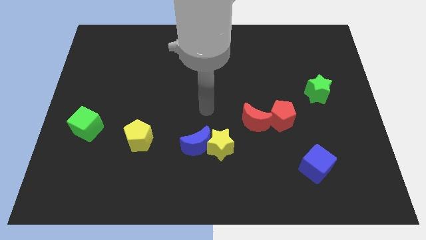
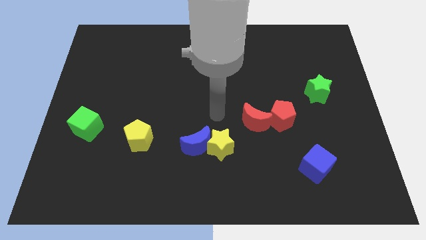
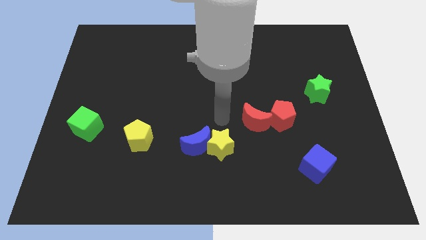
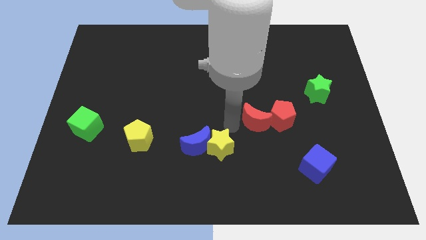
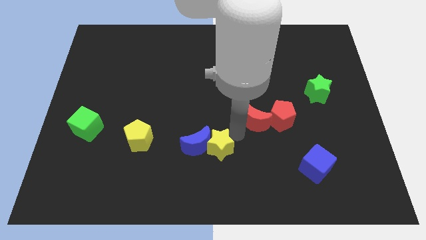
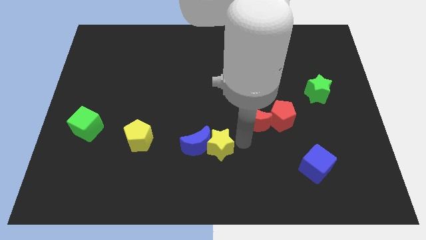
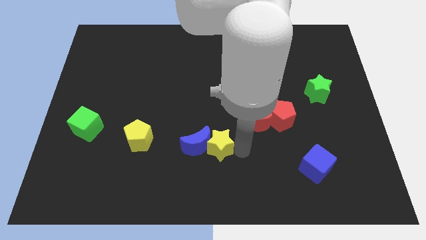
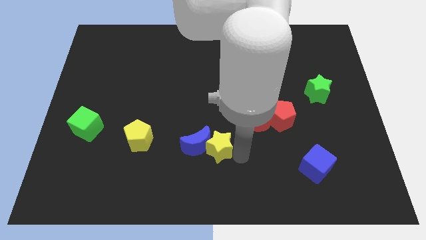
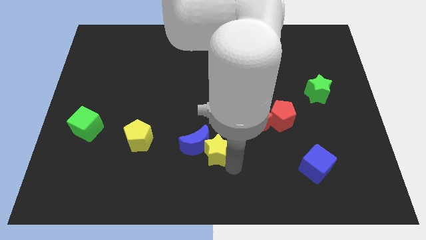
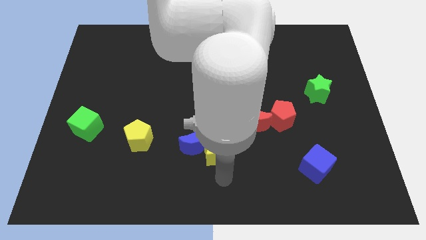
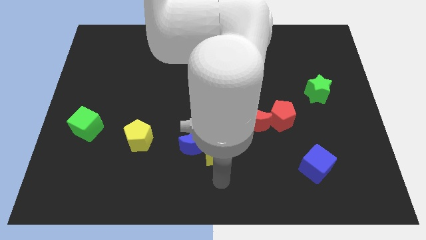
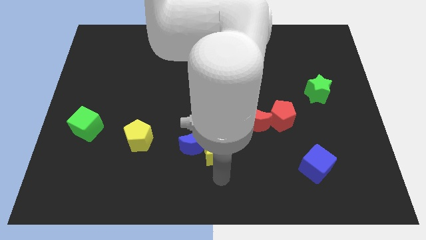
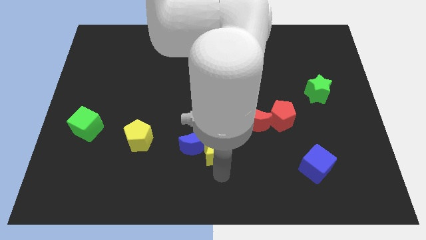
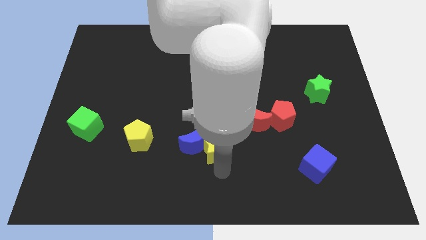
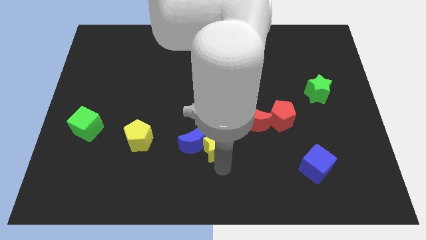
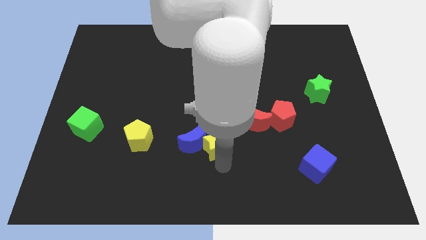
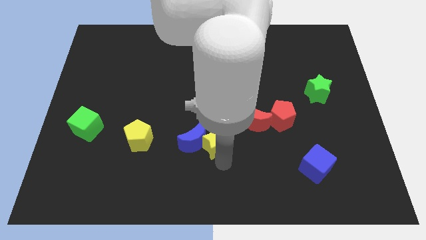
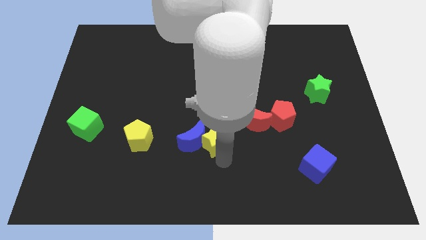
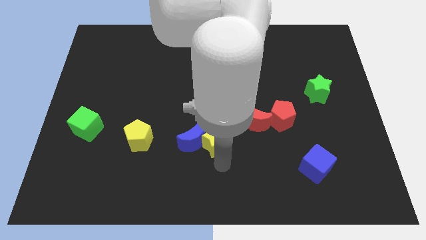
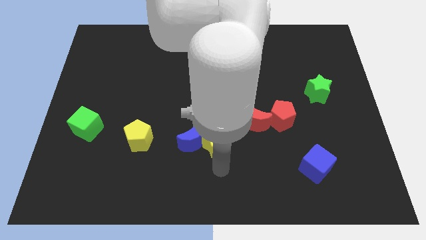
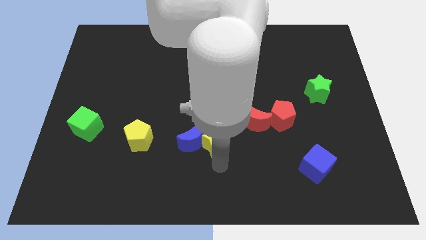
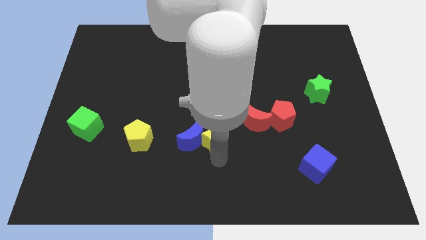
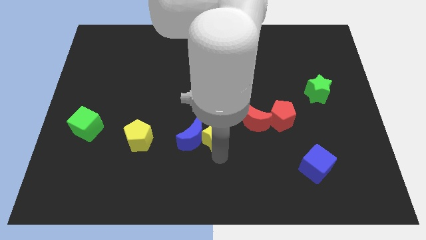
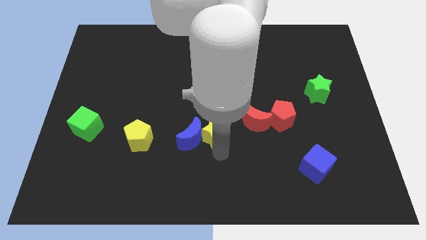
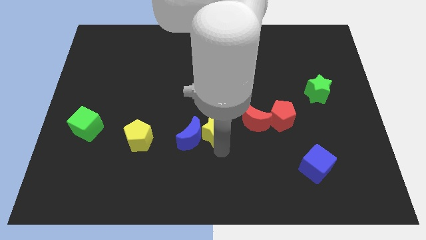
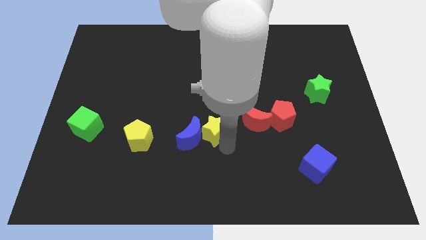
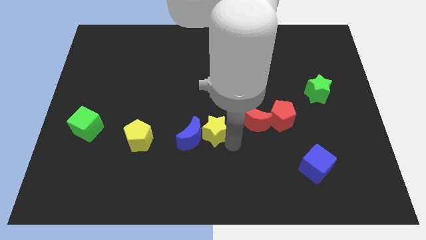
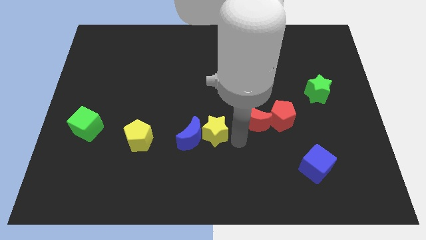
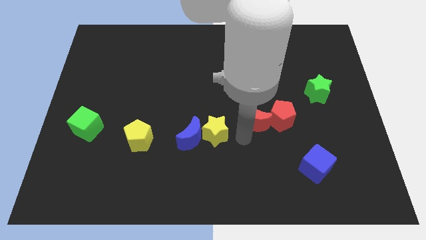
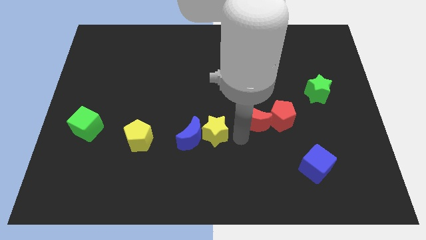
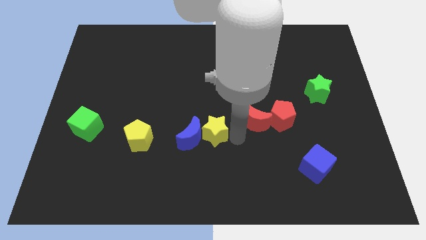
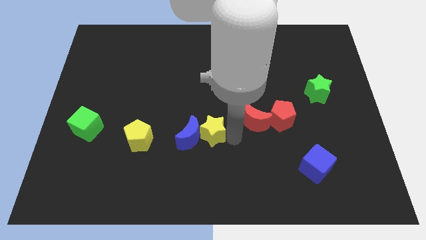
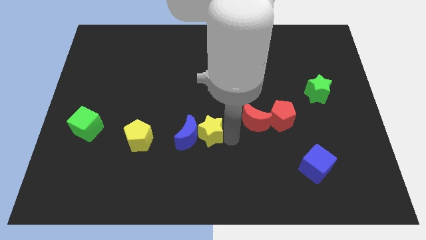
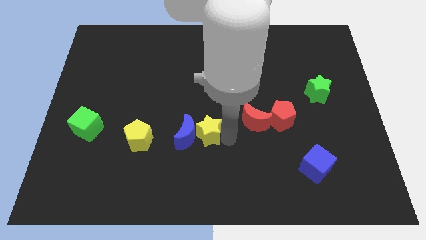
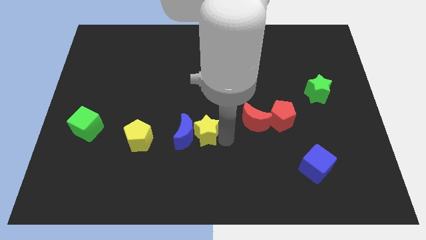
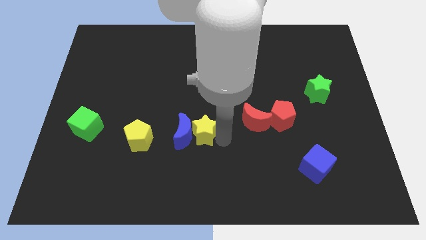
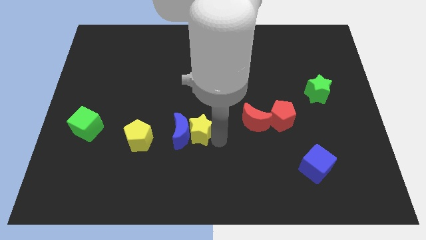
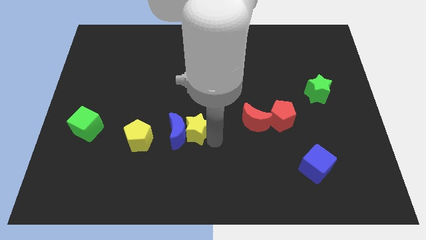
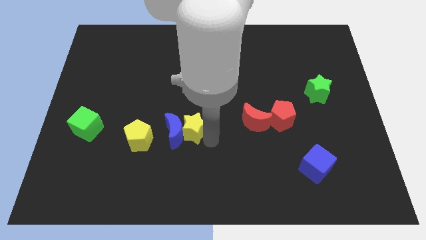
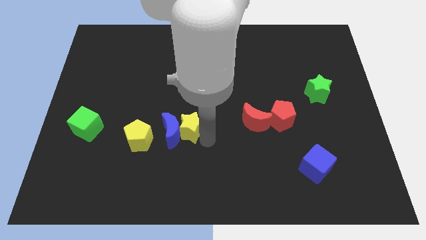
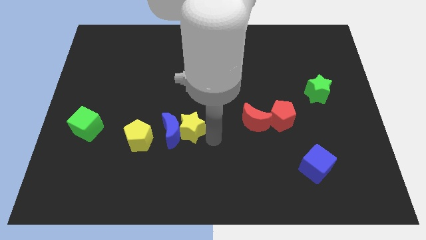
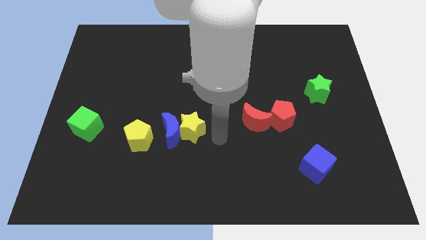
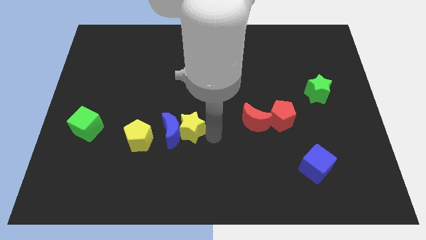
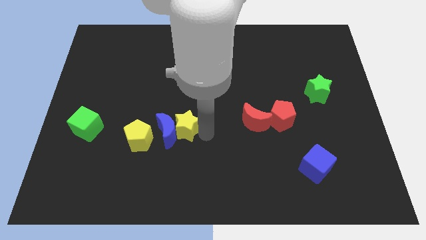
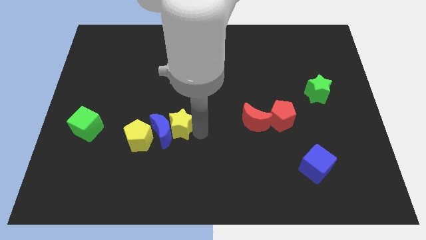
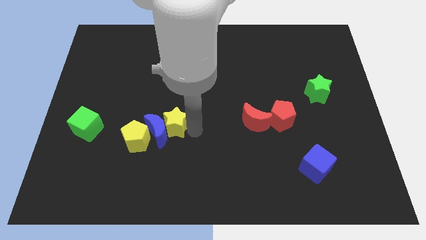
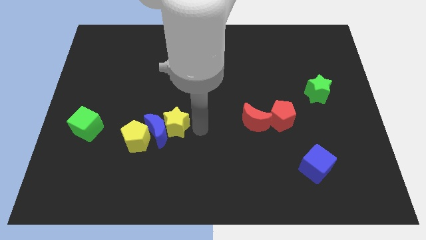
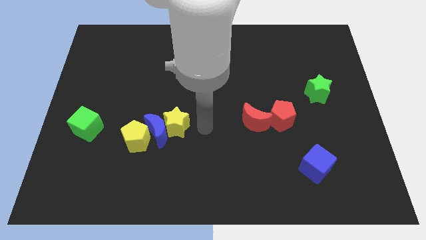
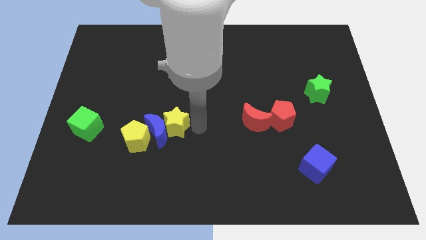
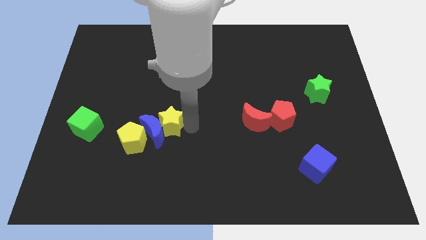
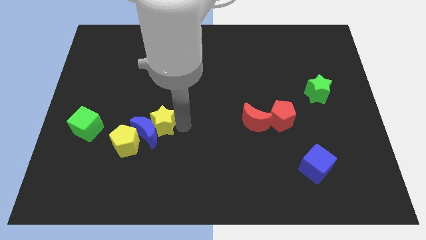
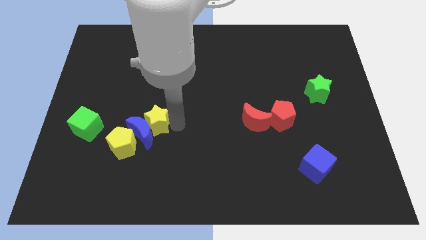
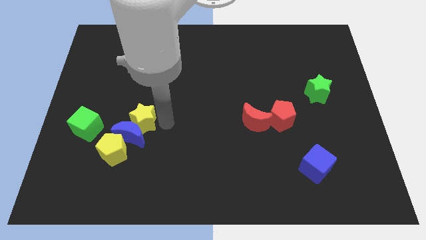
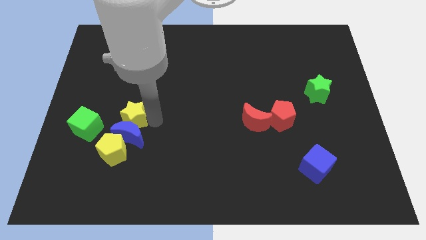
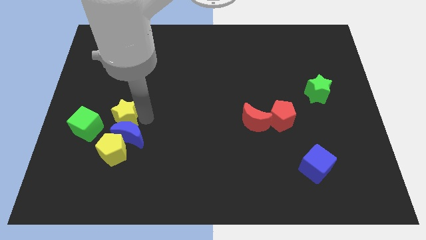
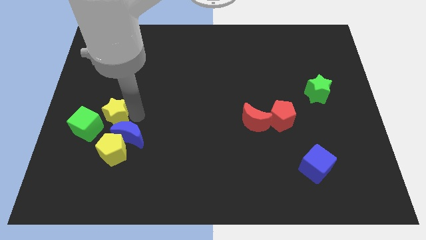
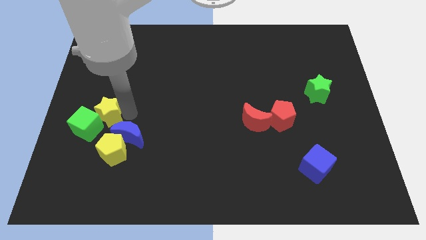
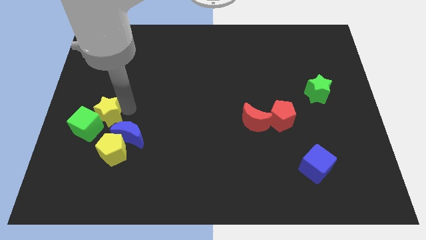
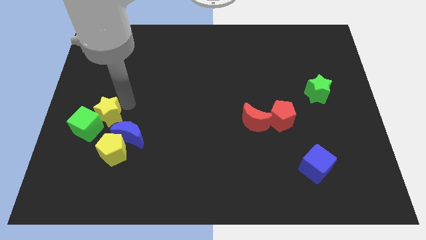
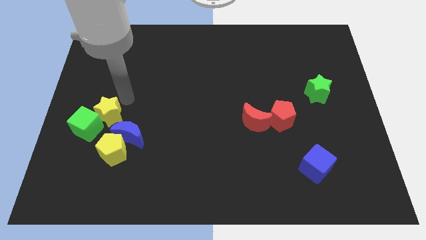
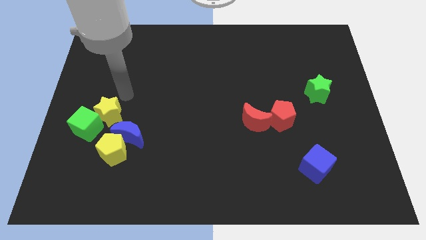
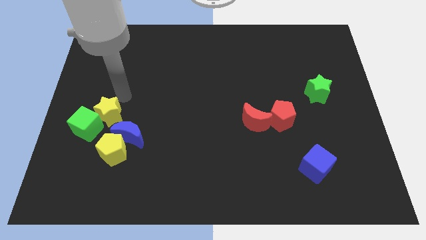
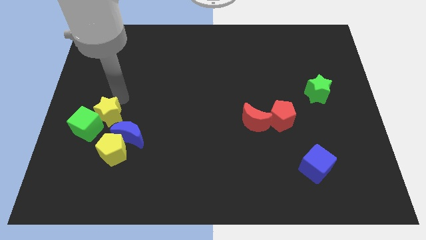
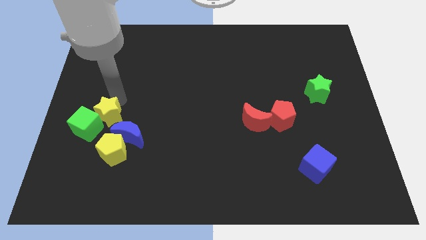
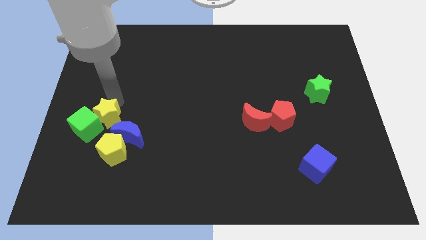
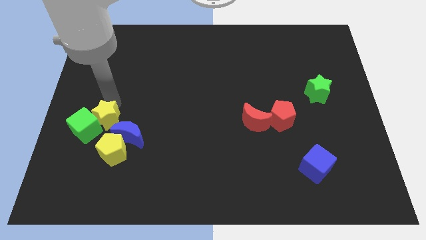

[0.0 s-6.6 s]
move the yellow star diagonally up and to the left of the yellow pentagon

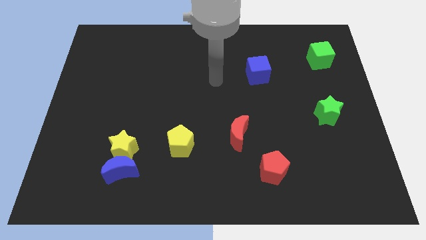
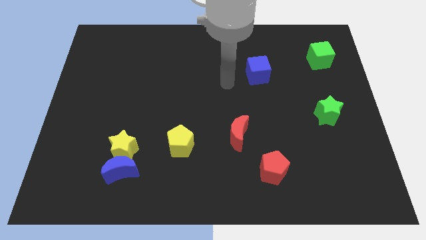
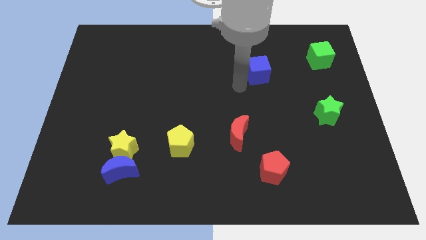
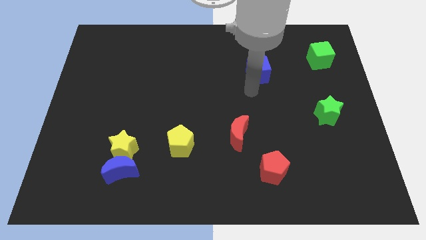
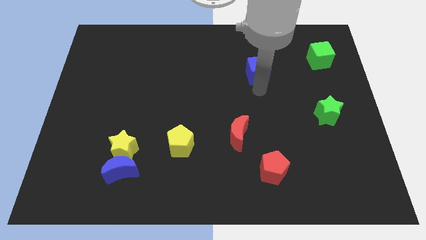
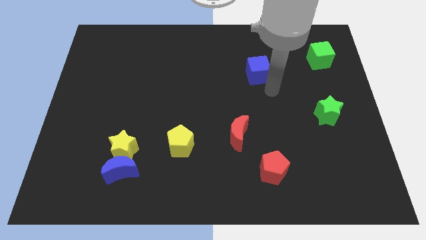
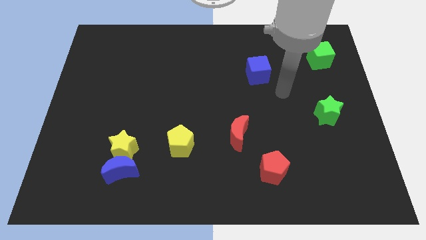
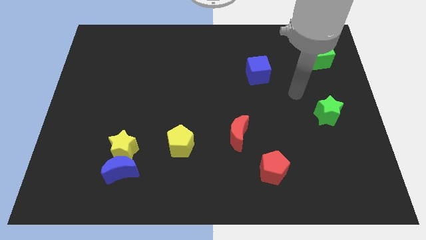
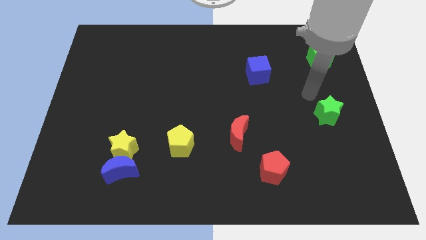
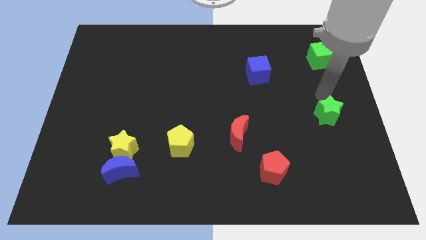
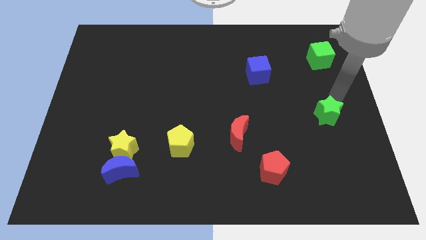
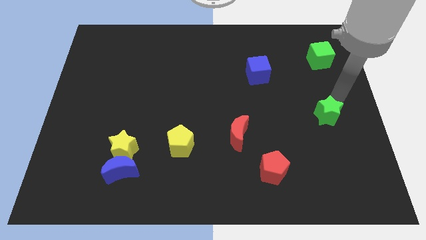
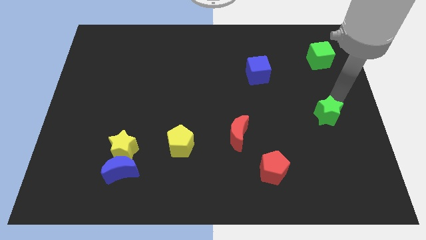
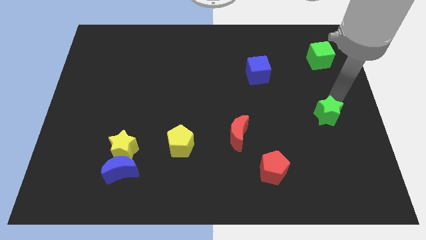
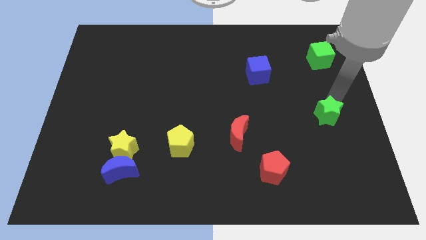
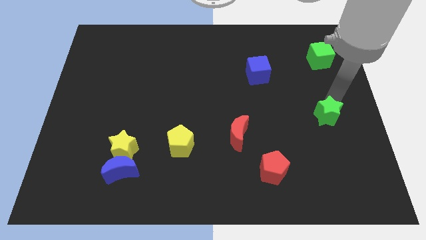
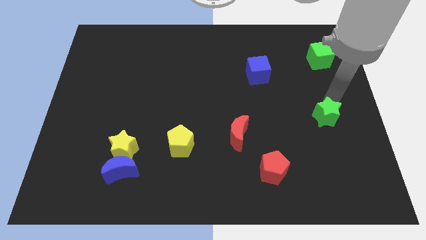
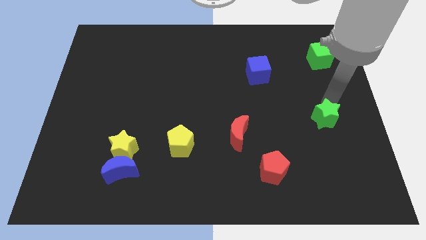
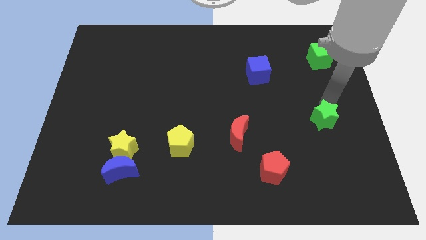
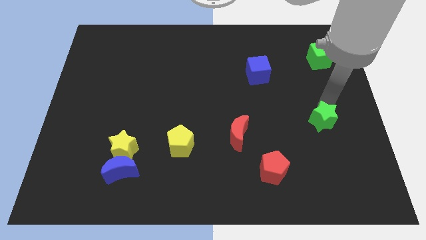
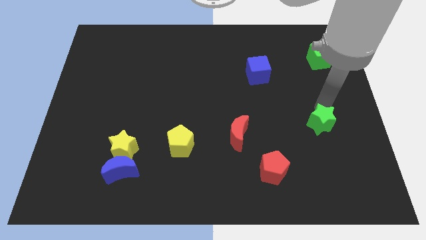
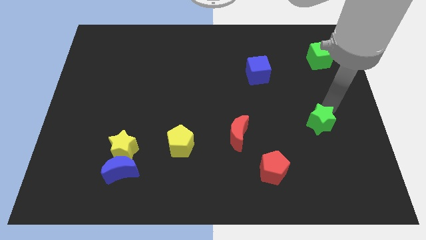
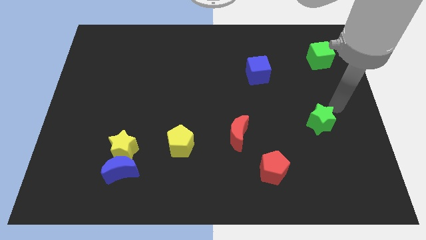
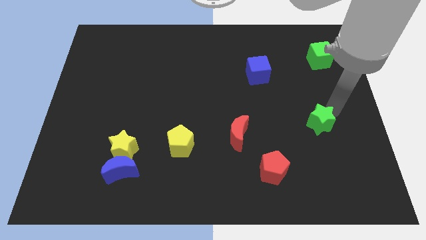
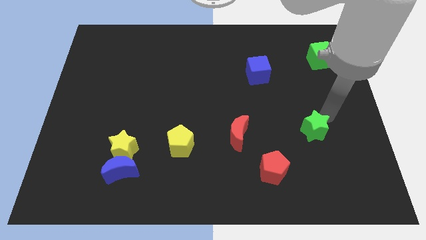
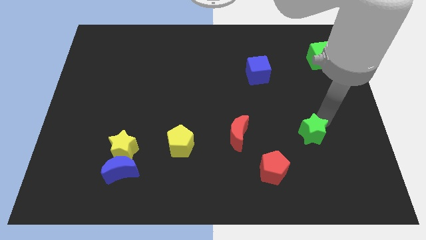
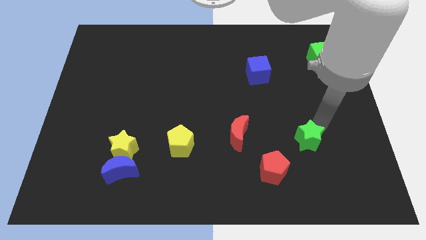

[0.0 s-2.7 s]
slide the green star to the top right of the red pentagon
